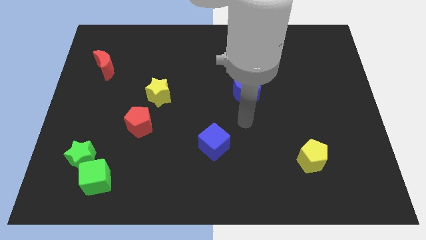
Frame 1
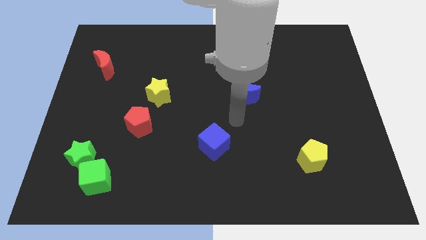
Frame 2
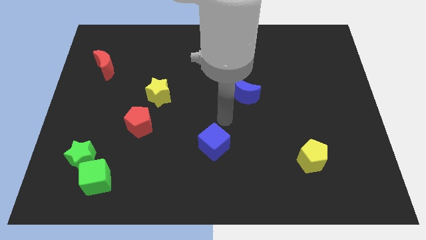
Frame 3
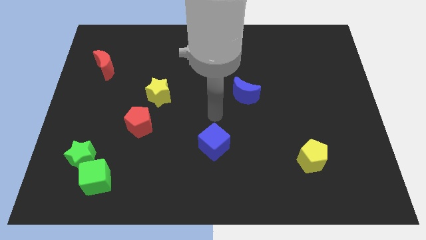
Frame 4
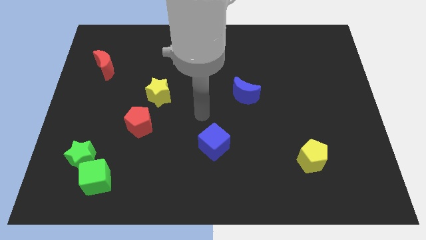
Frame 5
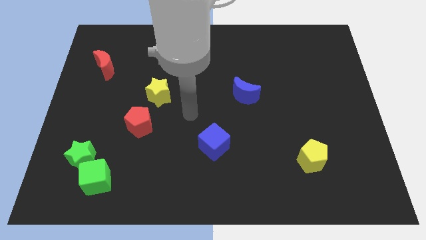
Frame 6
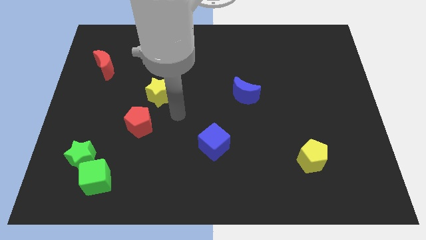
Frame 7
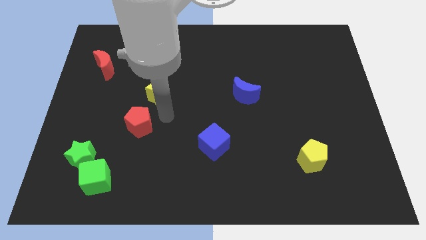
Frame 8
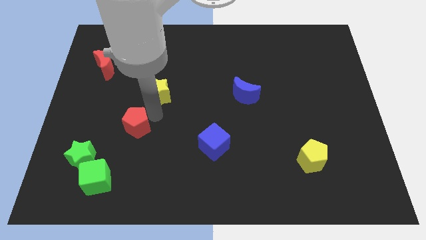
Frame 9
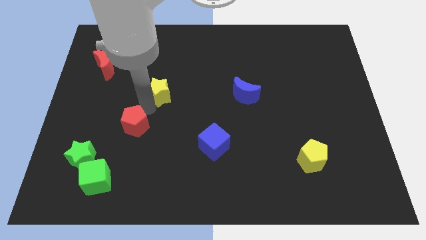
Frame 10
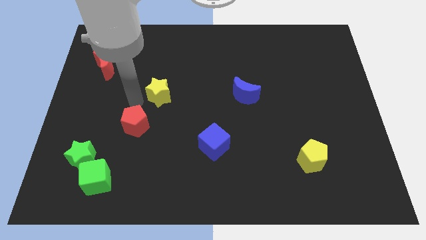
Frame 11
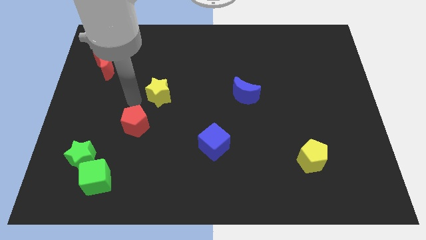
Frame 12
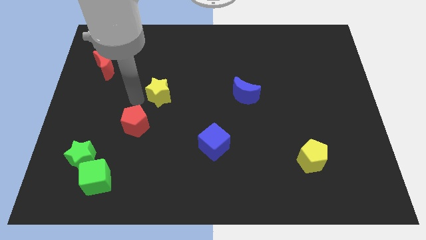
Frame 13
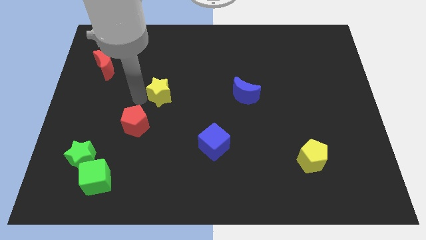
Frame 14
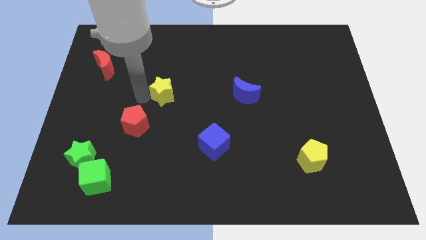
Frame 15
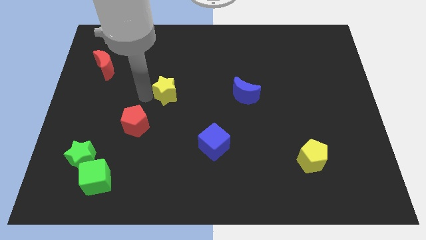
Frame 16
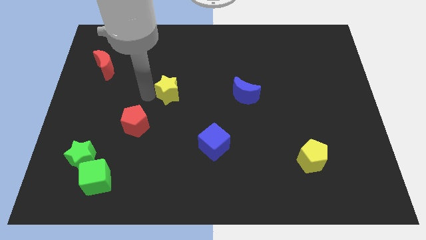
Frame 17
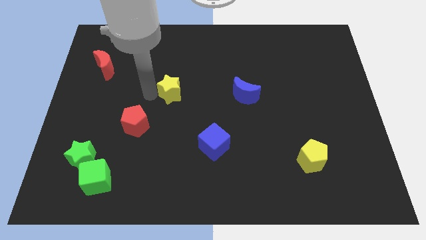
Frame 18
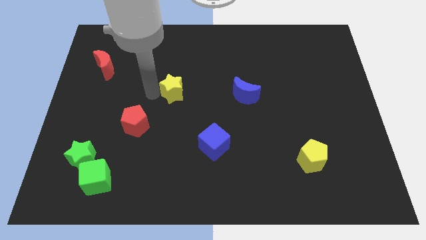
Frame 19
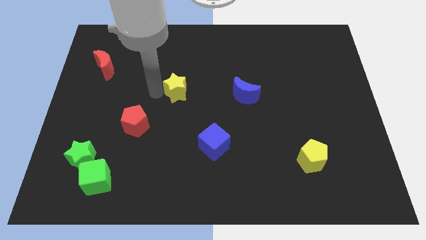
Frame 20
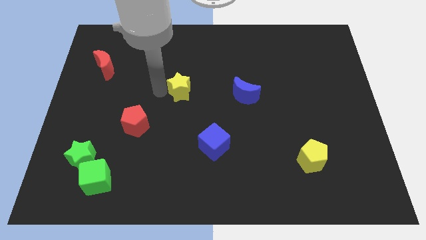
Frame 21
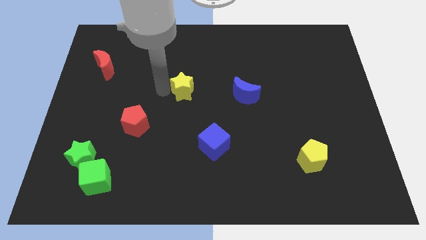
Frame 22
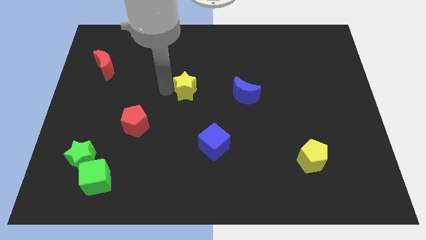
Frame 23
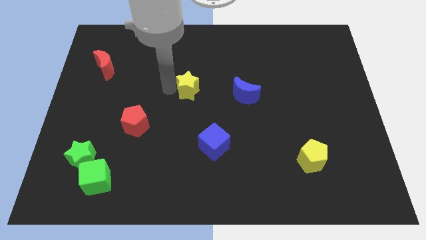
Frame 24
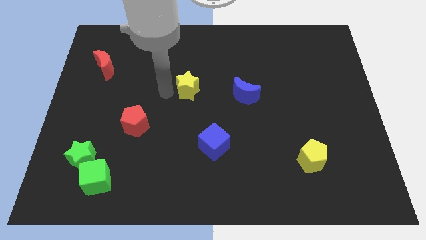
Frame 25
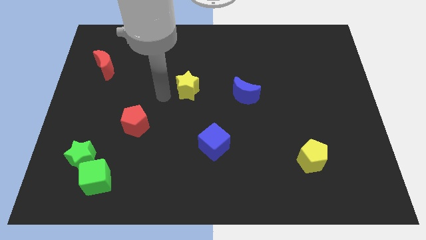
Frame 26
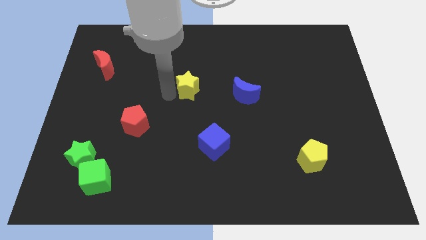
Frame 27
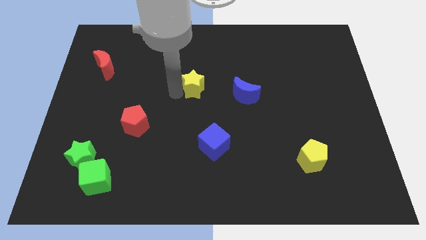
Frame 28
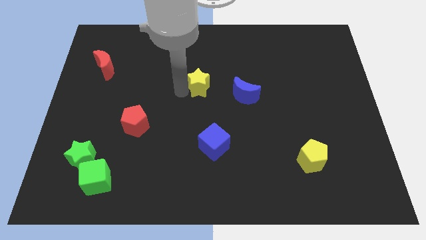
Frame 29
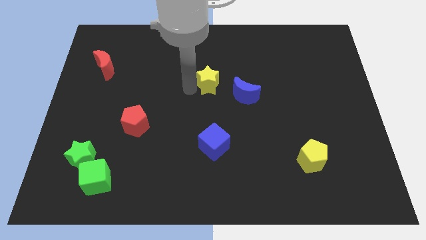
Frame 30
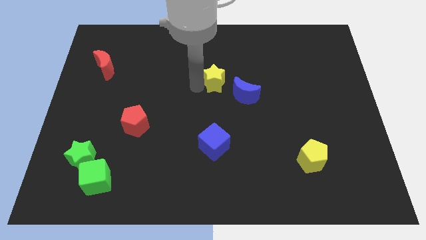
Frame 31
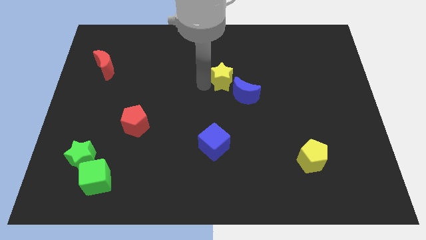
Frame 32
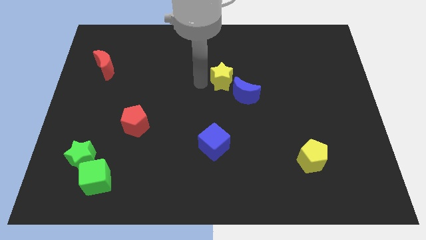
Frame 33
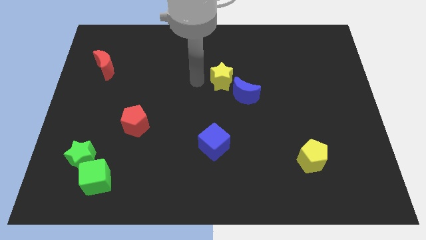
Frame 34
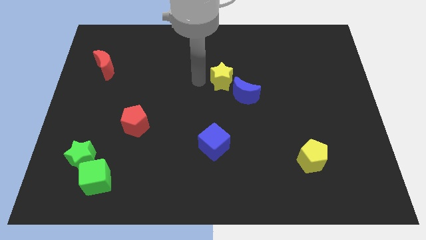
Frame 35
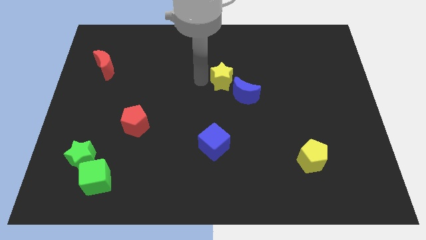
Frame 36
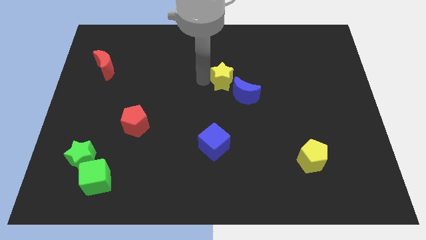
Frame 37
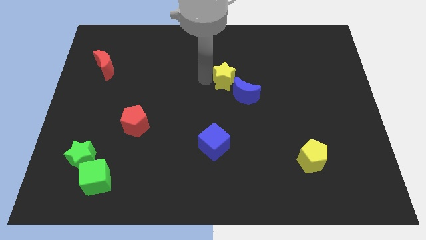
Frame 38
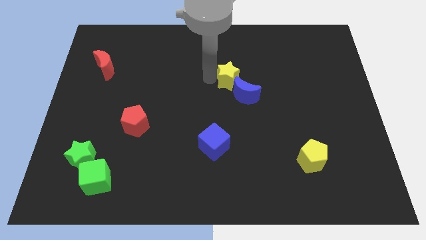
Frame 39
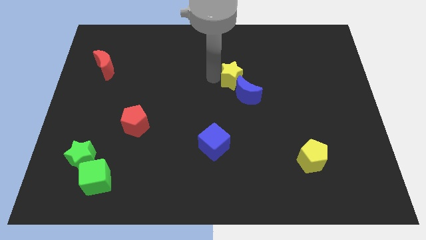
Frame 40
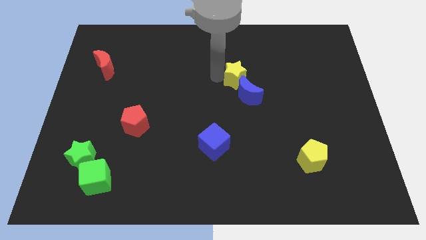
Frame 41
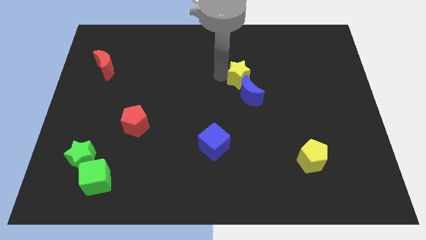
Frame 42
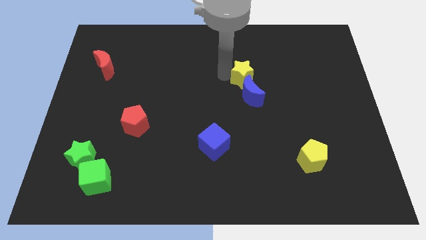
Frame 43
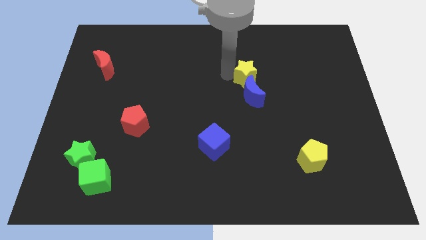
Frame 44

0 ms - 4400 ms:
slide the yellow star to the right

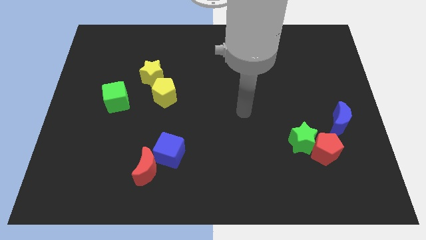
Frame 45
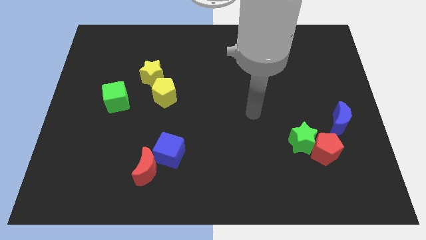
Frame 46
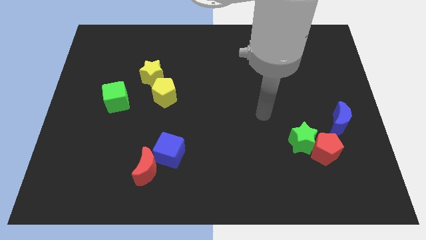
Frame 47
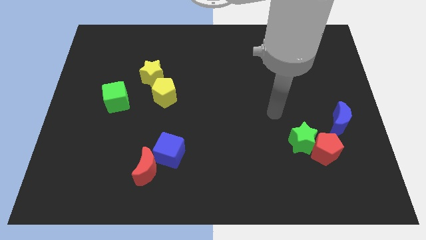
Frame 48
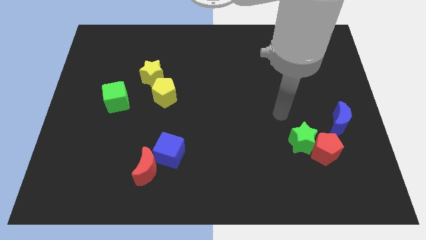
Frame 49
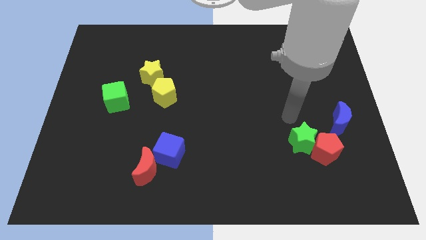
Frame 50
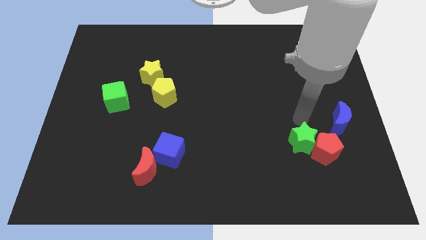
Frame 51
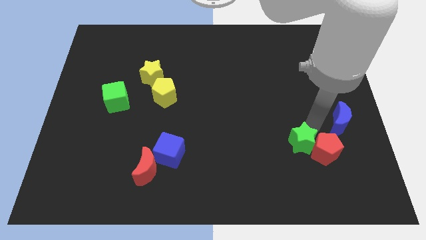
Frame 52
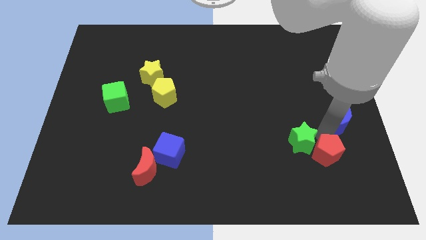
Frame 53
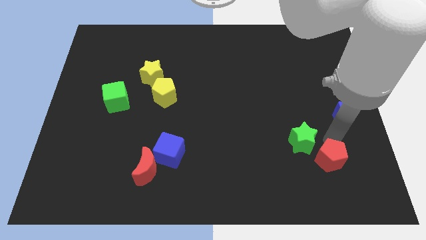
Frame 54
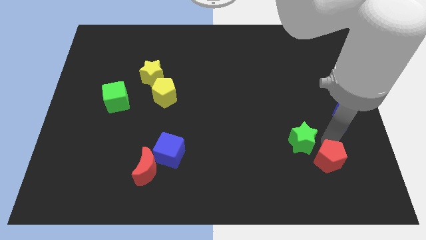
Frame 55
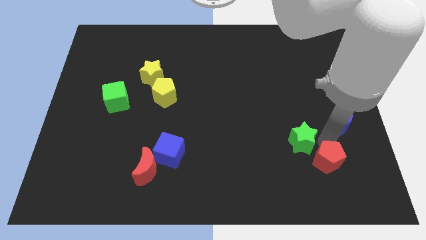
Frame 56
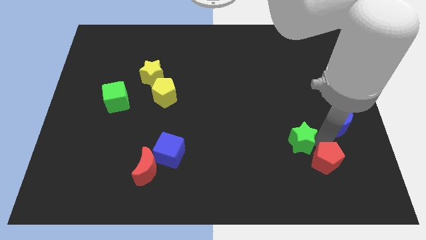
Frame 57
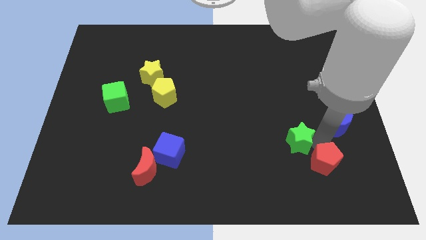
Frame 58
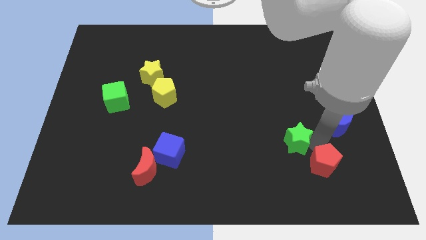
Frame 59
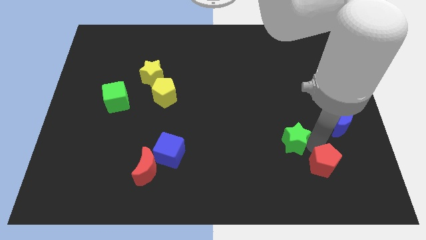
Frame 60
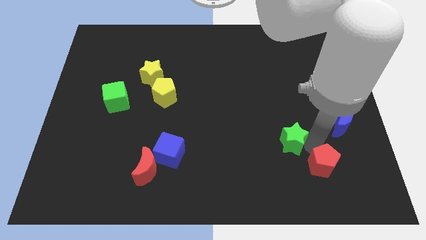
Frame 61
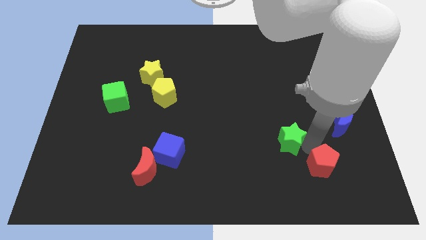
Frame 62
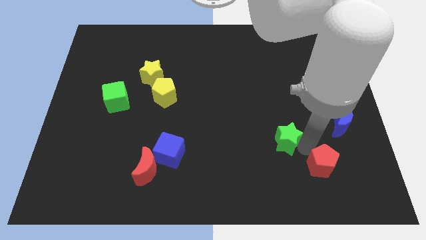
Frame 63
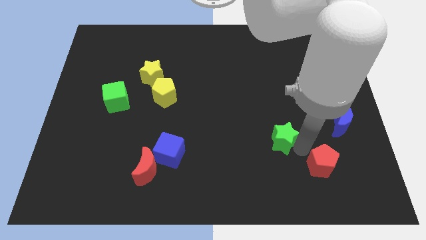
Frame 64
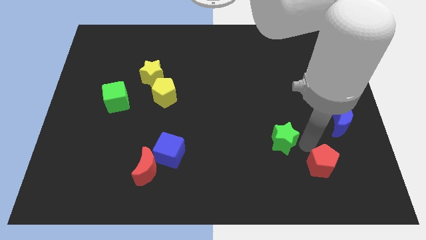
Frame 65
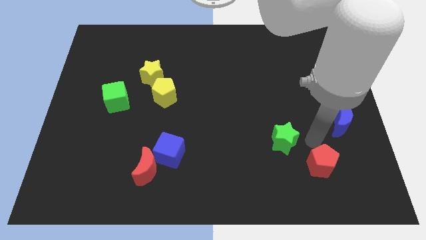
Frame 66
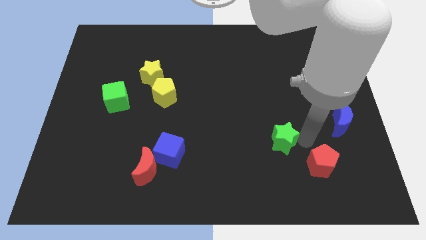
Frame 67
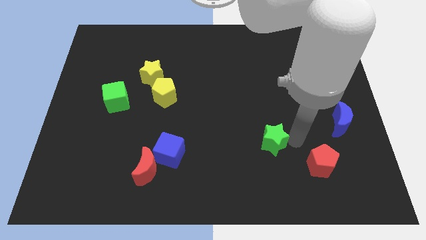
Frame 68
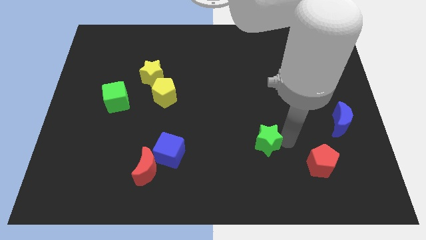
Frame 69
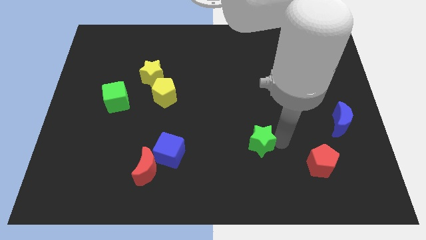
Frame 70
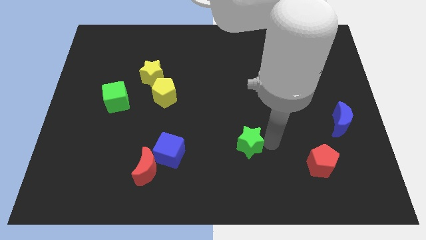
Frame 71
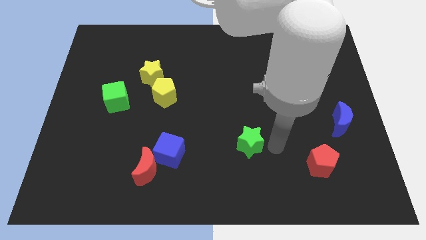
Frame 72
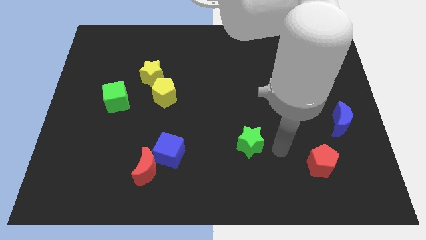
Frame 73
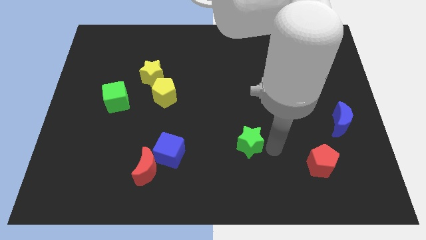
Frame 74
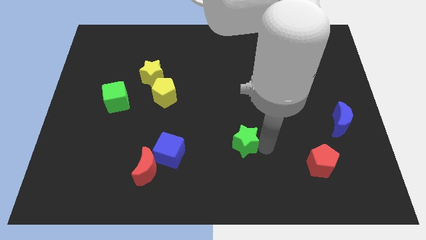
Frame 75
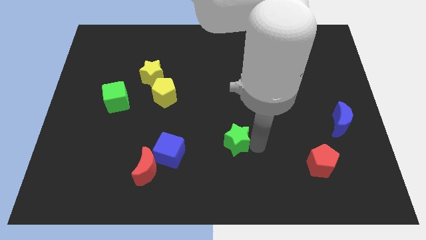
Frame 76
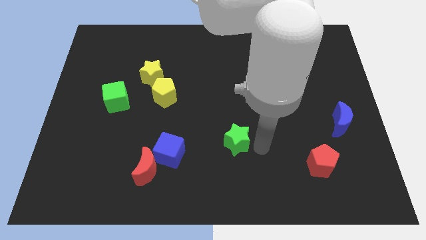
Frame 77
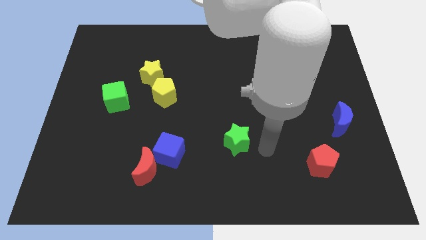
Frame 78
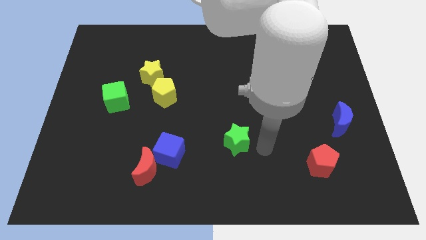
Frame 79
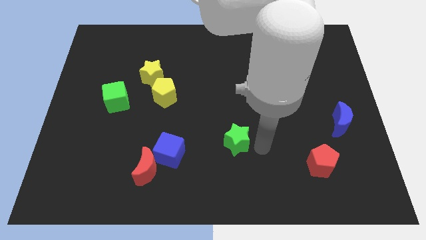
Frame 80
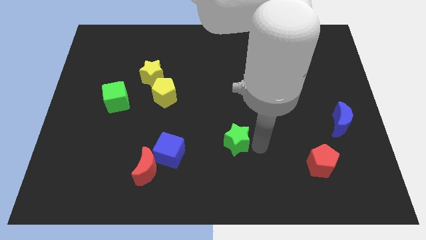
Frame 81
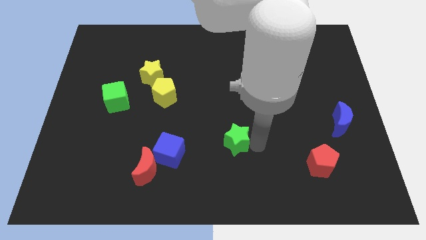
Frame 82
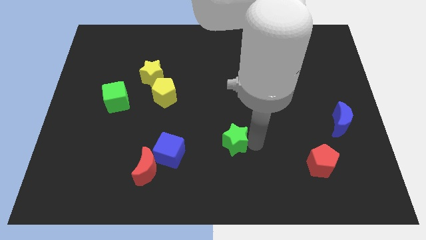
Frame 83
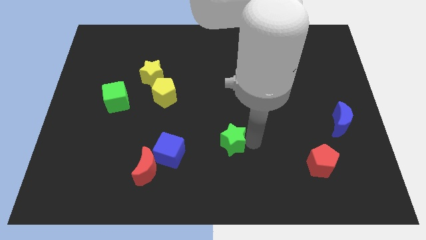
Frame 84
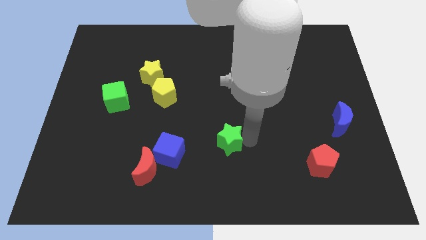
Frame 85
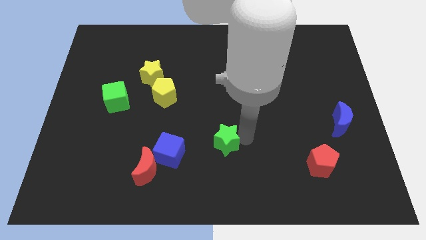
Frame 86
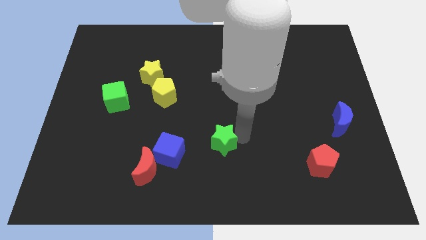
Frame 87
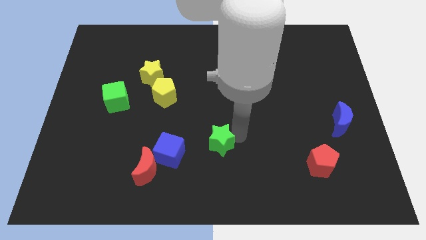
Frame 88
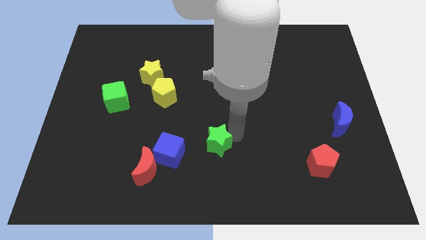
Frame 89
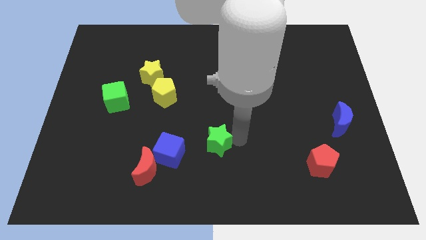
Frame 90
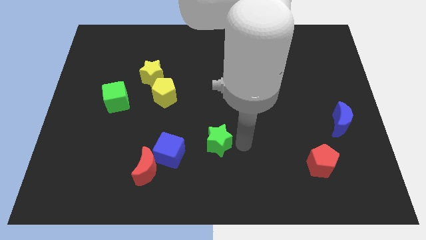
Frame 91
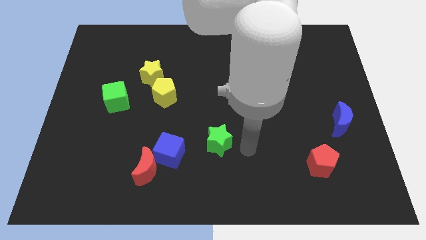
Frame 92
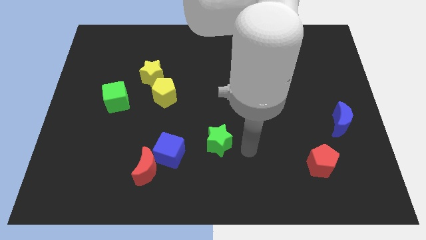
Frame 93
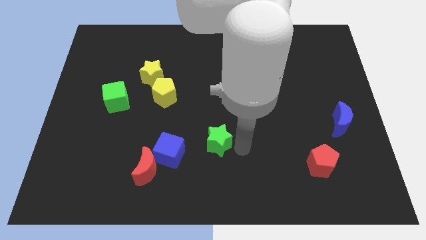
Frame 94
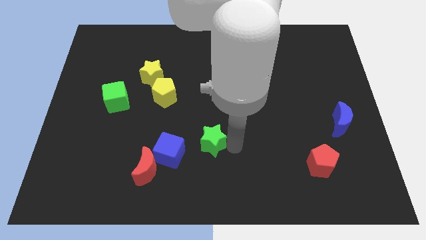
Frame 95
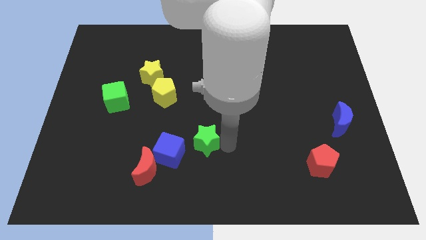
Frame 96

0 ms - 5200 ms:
move the green star left
